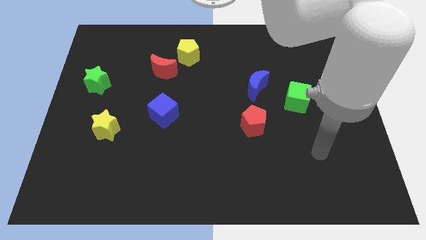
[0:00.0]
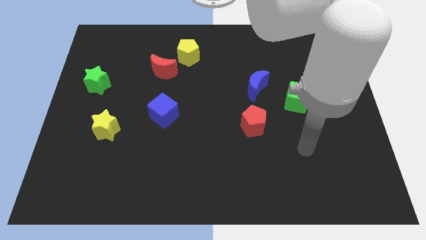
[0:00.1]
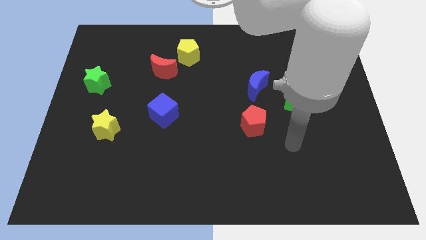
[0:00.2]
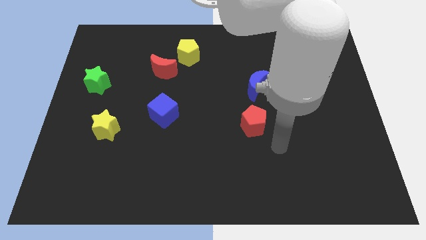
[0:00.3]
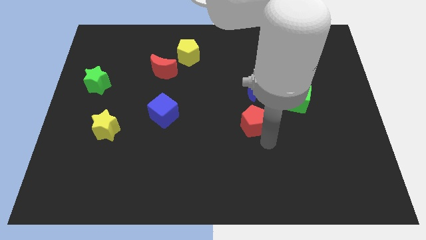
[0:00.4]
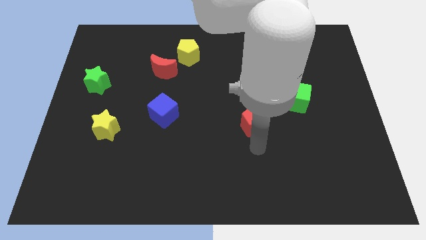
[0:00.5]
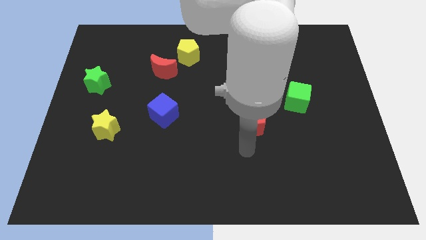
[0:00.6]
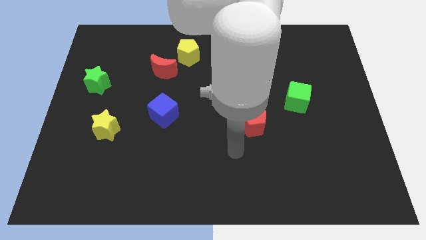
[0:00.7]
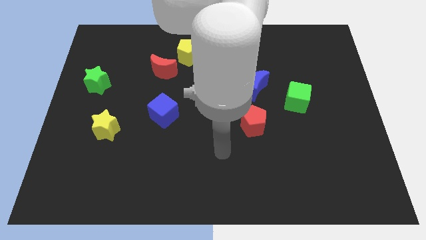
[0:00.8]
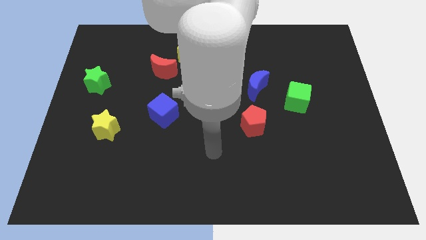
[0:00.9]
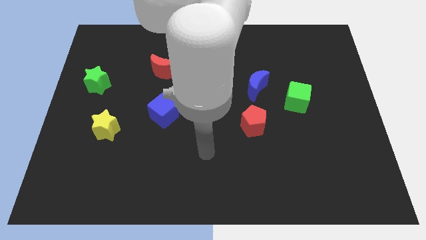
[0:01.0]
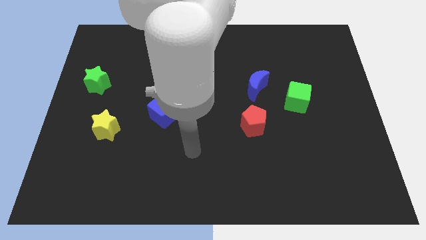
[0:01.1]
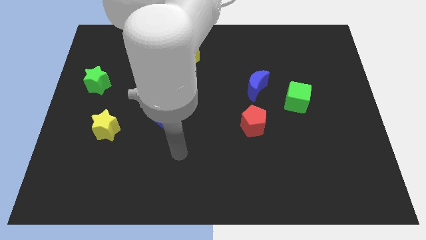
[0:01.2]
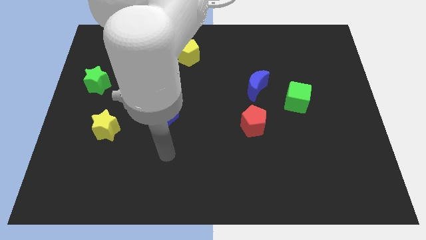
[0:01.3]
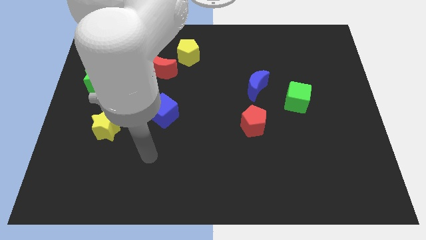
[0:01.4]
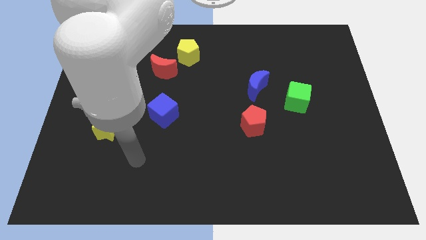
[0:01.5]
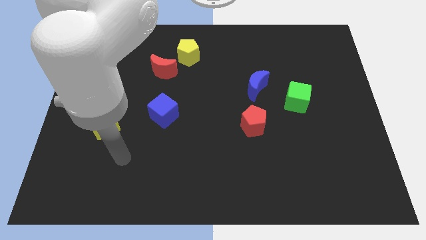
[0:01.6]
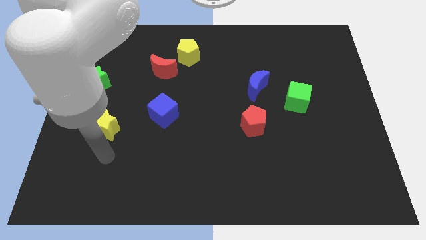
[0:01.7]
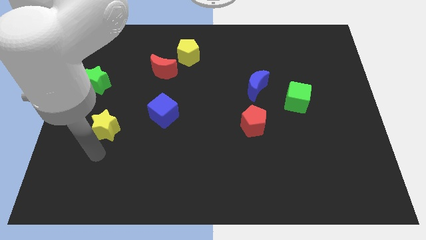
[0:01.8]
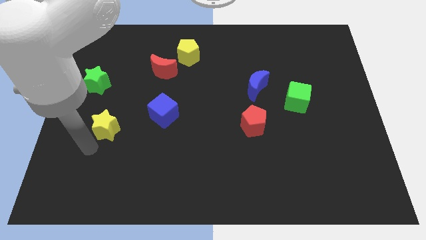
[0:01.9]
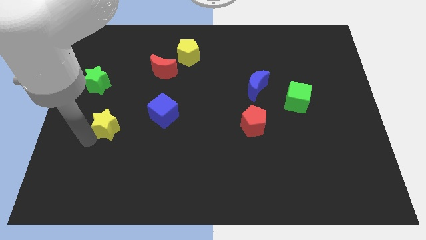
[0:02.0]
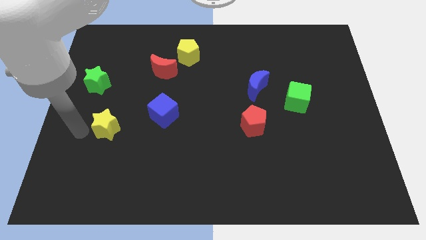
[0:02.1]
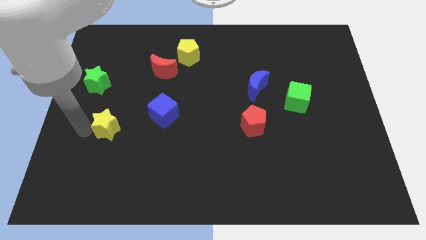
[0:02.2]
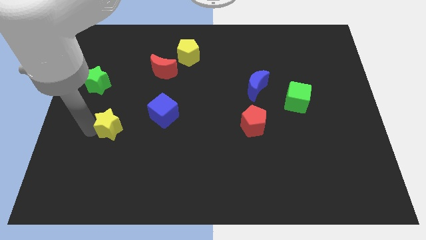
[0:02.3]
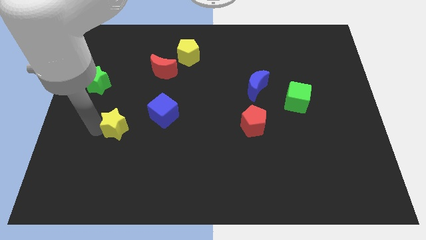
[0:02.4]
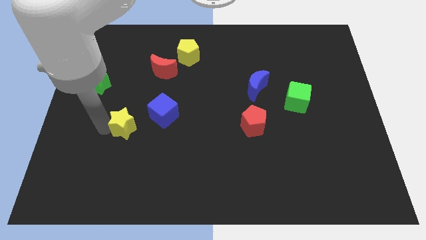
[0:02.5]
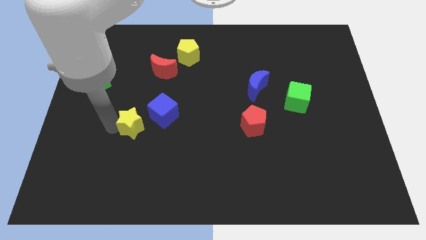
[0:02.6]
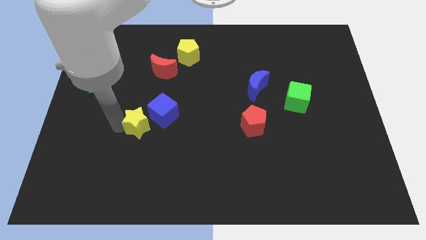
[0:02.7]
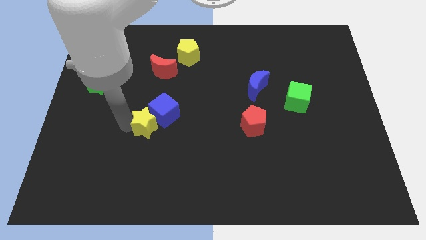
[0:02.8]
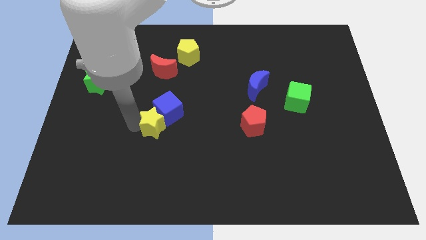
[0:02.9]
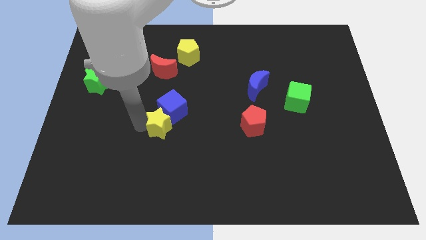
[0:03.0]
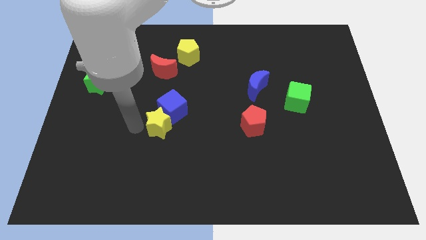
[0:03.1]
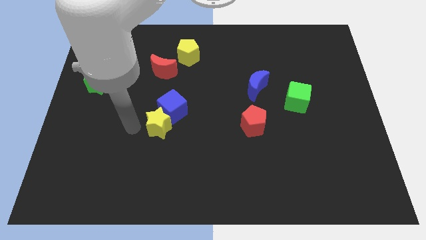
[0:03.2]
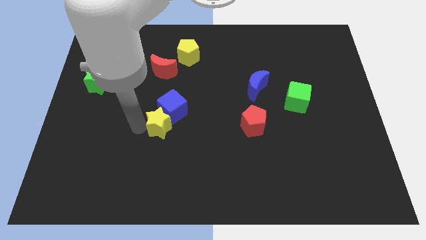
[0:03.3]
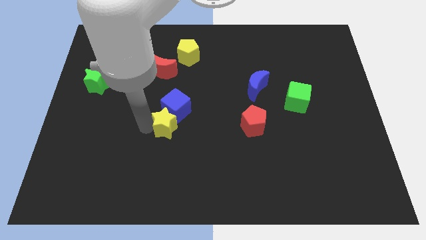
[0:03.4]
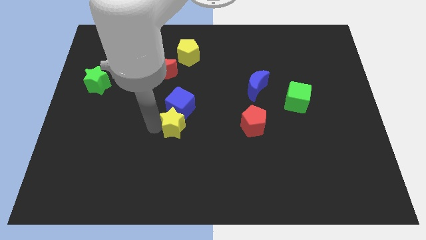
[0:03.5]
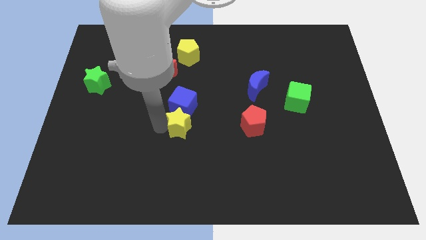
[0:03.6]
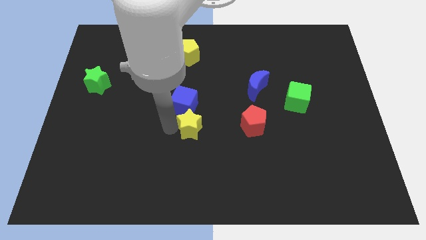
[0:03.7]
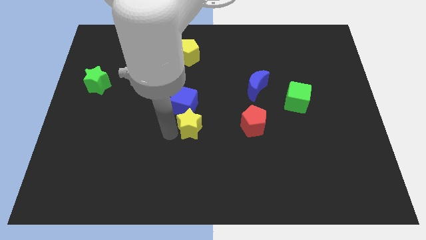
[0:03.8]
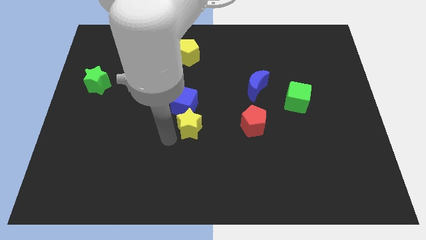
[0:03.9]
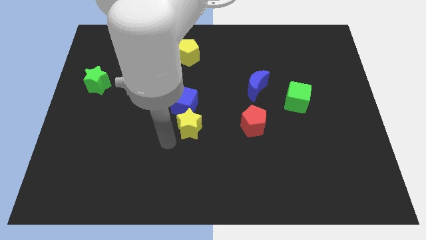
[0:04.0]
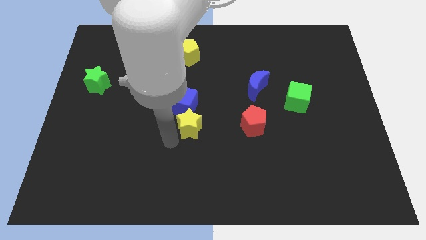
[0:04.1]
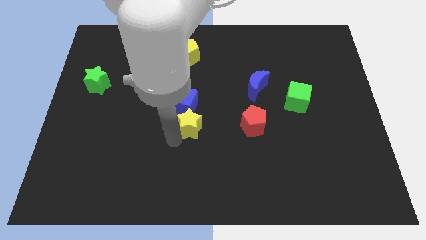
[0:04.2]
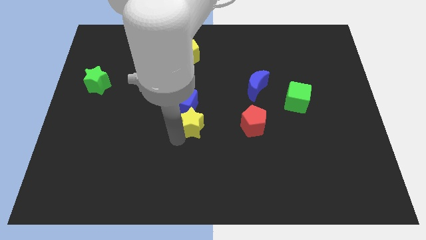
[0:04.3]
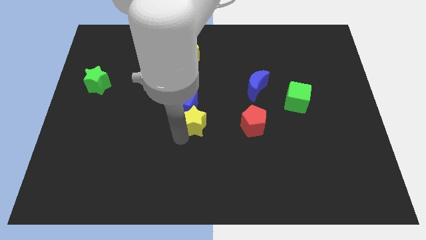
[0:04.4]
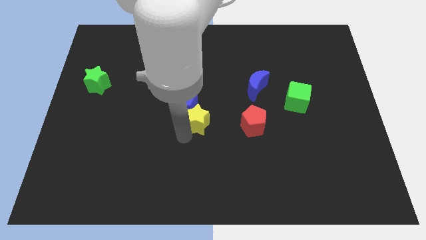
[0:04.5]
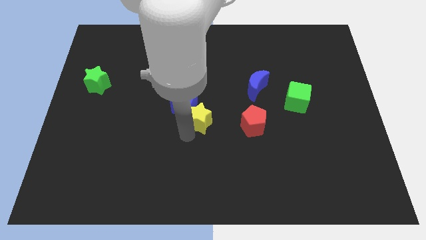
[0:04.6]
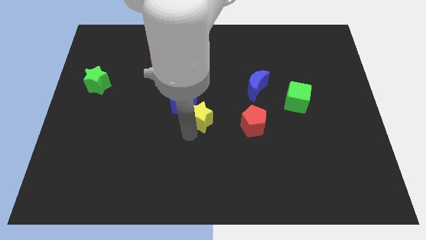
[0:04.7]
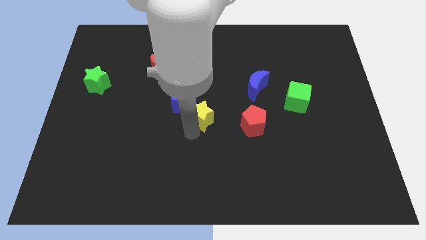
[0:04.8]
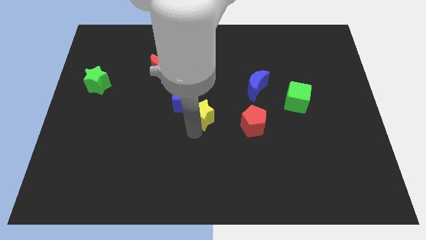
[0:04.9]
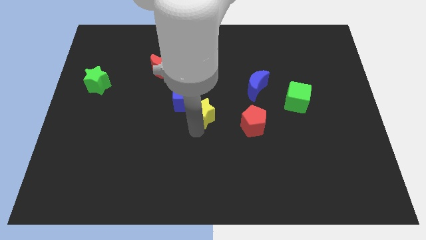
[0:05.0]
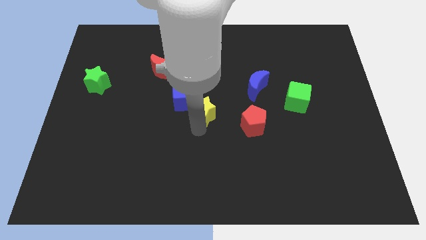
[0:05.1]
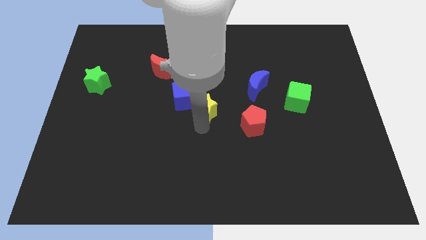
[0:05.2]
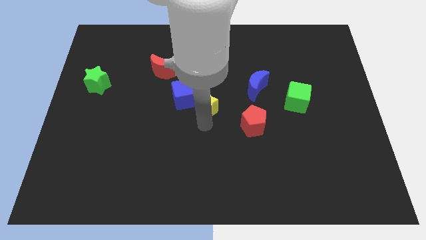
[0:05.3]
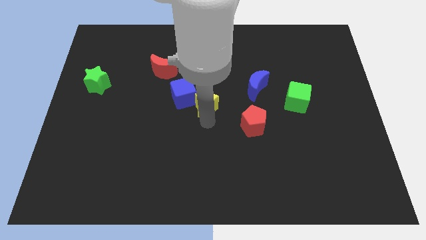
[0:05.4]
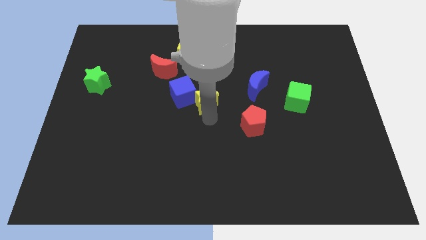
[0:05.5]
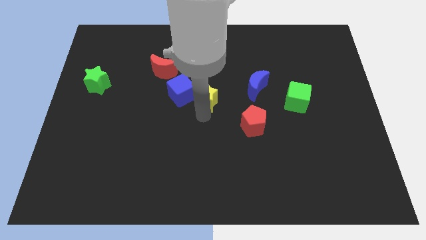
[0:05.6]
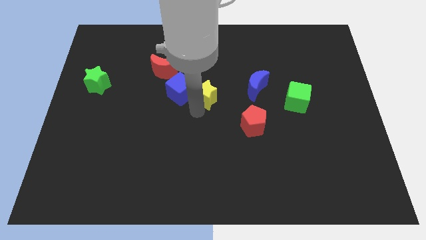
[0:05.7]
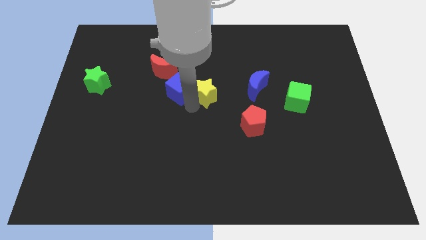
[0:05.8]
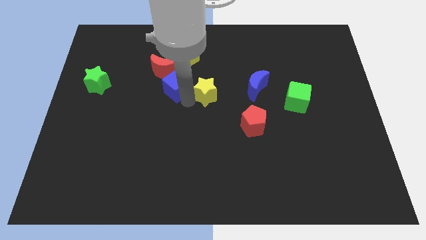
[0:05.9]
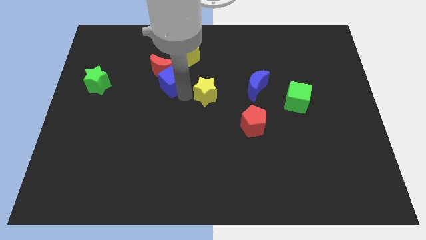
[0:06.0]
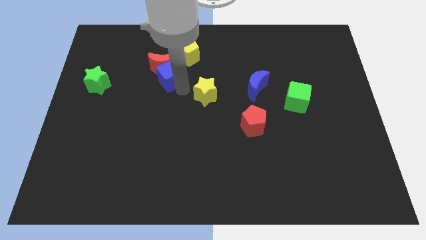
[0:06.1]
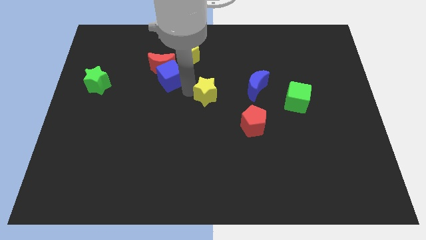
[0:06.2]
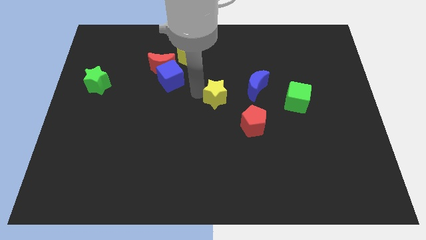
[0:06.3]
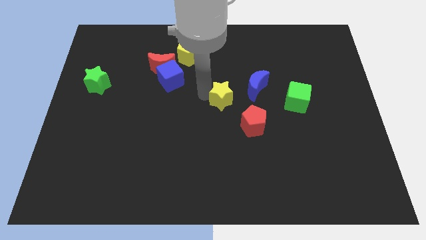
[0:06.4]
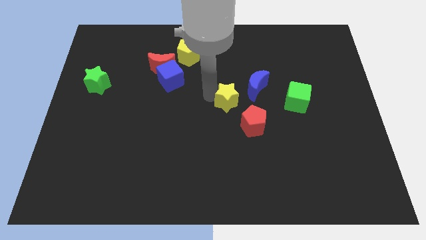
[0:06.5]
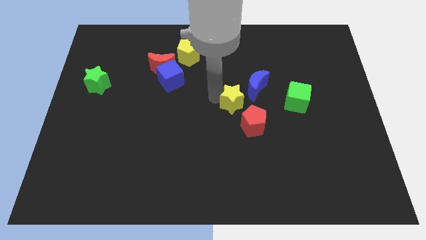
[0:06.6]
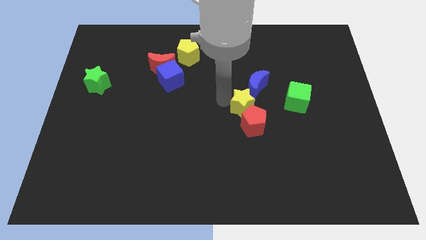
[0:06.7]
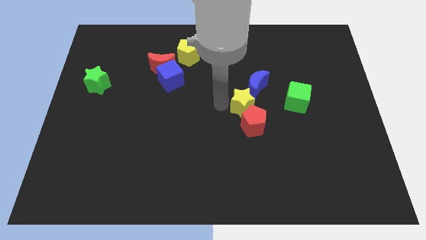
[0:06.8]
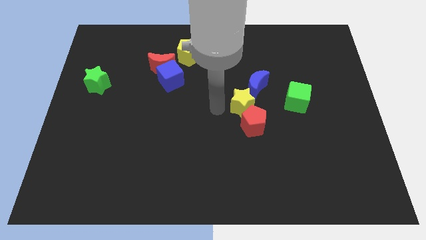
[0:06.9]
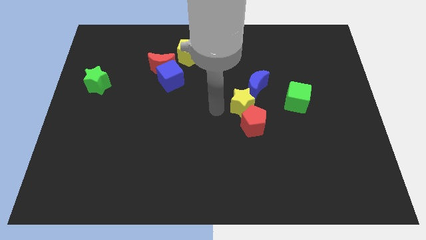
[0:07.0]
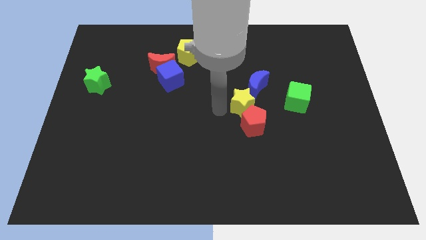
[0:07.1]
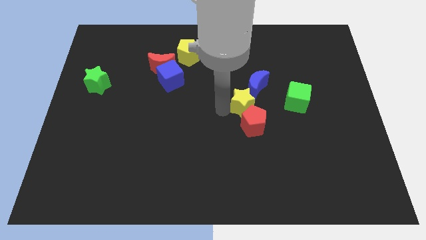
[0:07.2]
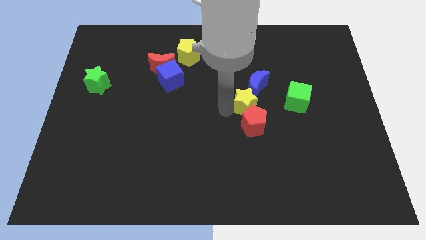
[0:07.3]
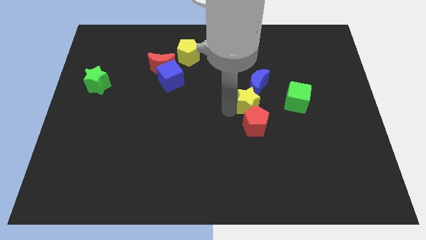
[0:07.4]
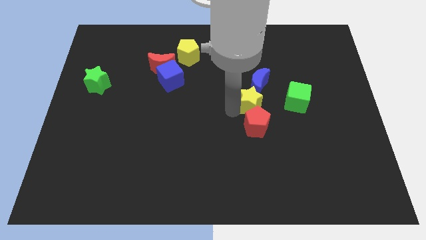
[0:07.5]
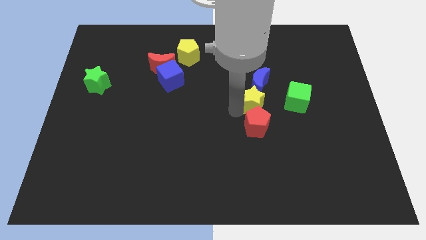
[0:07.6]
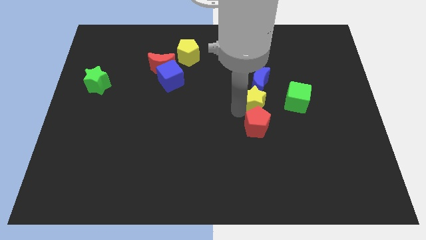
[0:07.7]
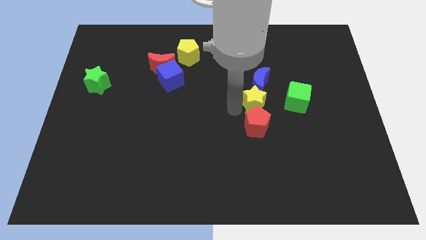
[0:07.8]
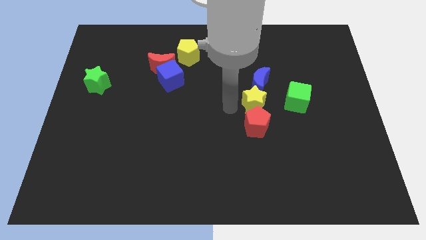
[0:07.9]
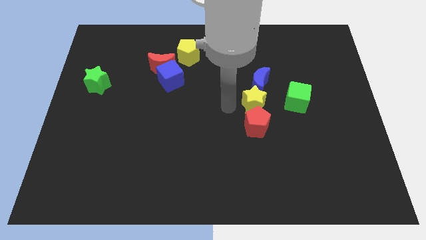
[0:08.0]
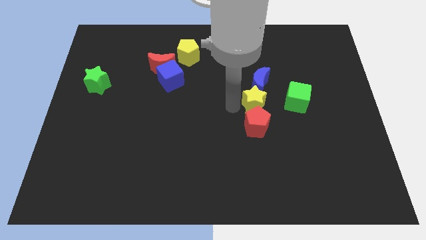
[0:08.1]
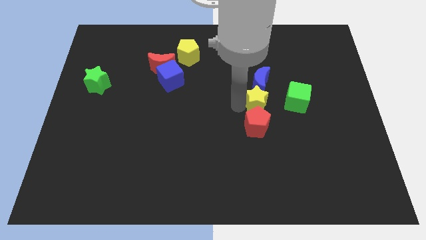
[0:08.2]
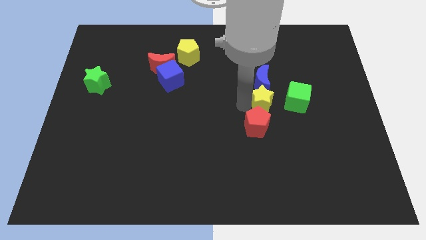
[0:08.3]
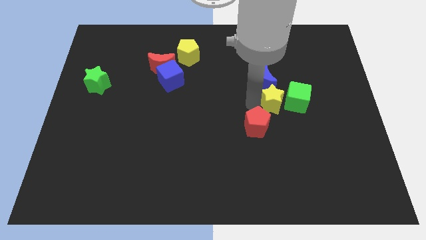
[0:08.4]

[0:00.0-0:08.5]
move the yellow star close to the green cube
